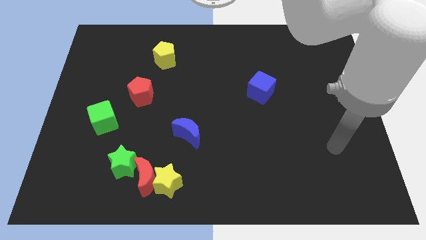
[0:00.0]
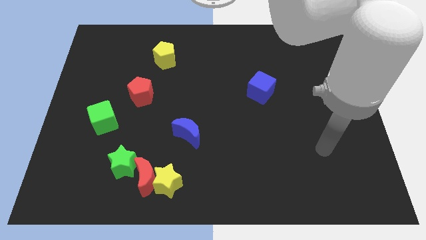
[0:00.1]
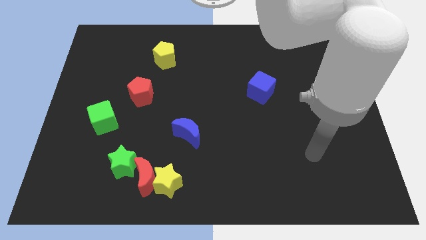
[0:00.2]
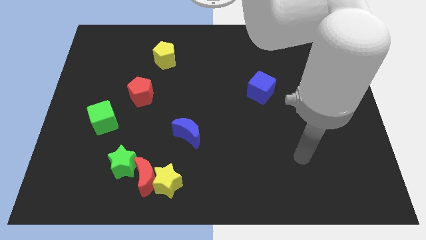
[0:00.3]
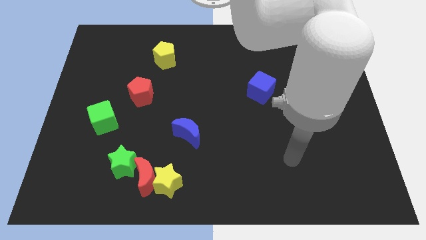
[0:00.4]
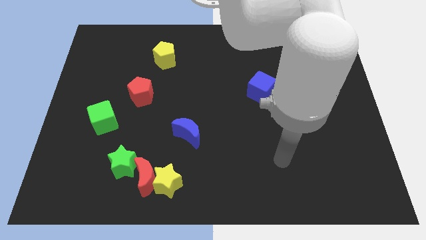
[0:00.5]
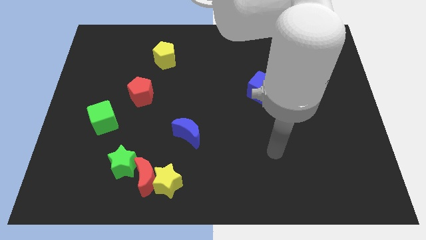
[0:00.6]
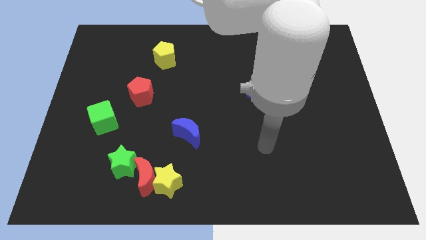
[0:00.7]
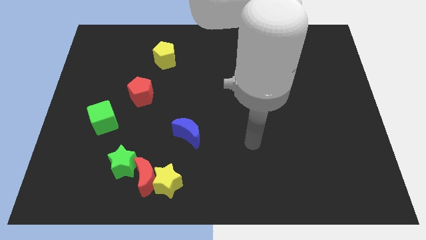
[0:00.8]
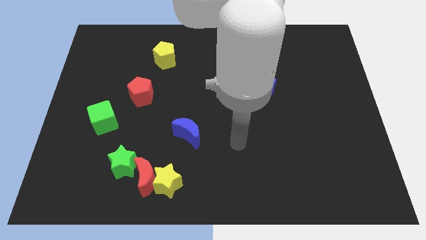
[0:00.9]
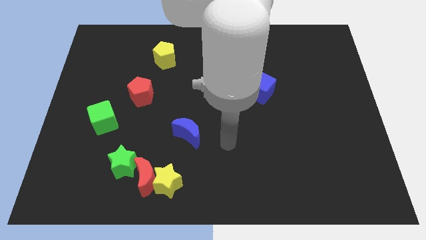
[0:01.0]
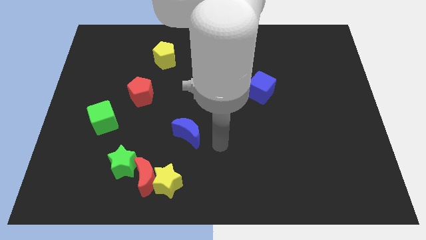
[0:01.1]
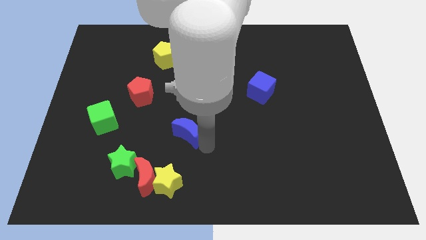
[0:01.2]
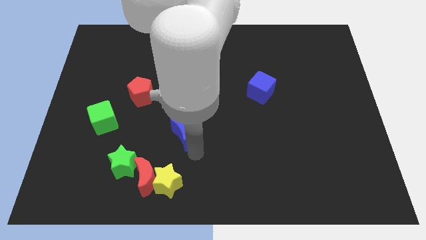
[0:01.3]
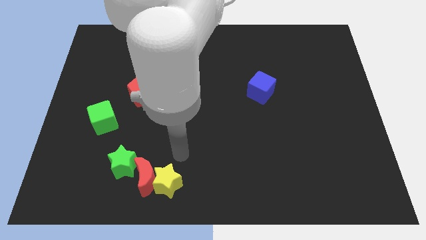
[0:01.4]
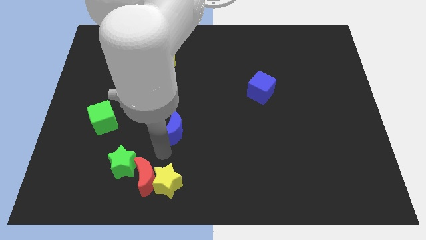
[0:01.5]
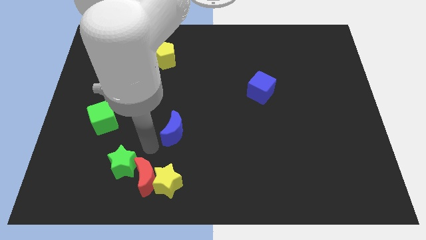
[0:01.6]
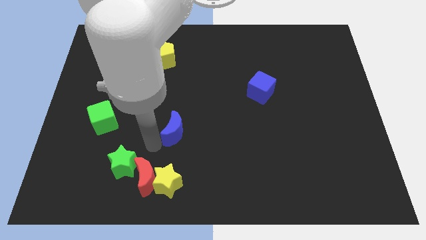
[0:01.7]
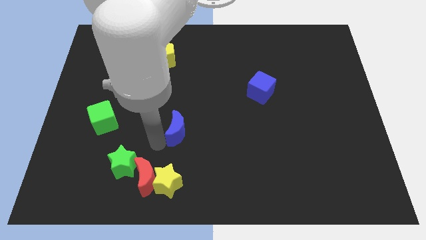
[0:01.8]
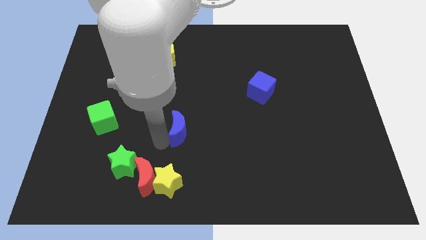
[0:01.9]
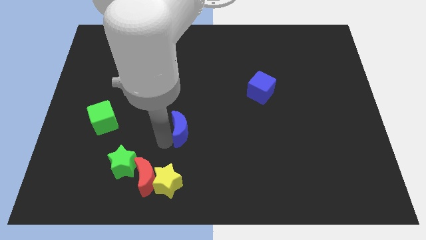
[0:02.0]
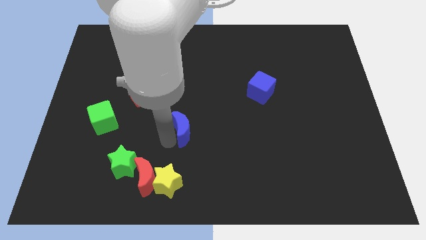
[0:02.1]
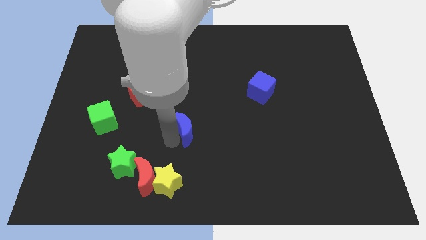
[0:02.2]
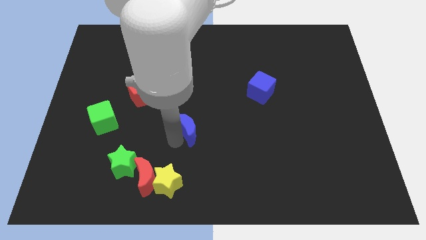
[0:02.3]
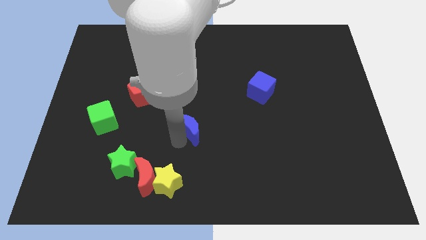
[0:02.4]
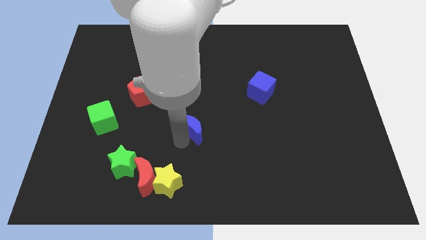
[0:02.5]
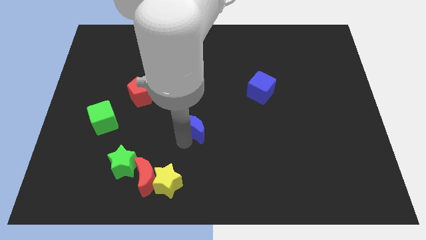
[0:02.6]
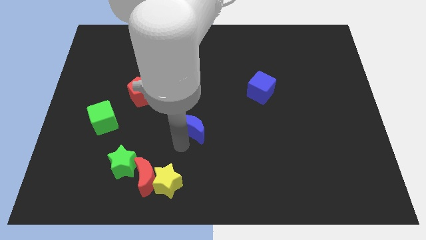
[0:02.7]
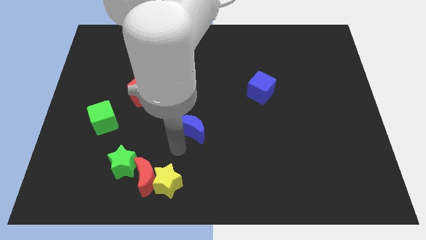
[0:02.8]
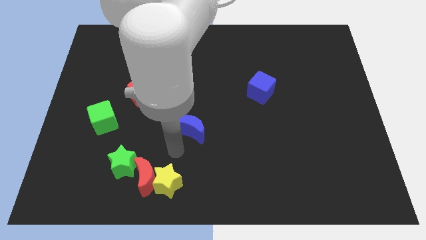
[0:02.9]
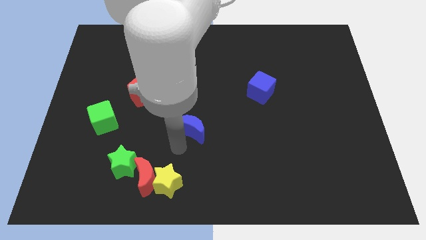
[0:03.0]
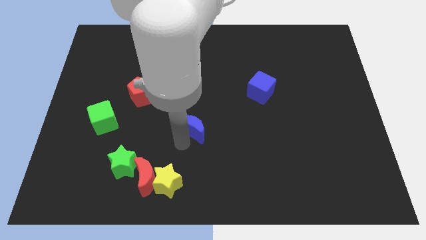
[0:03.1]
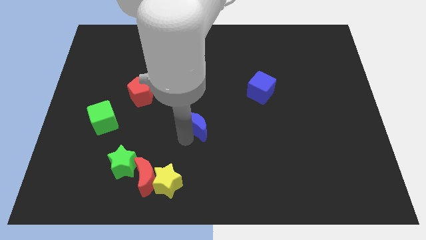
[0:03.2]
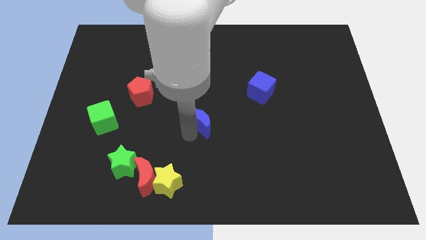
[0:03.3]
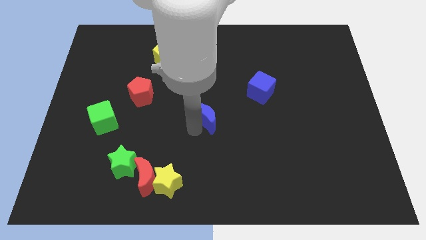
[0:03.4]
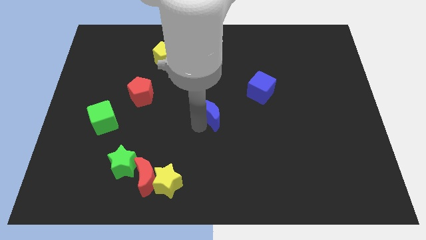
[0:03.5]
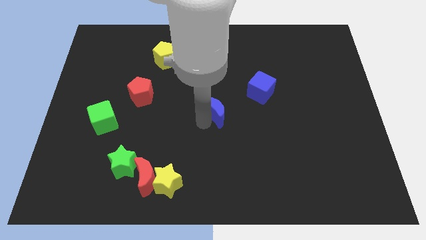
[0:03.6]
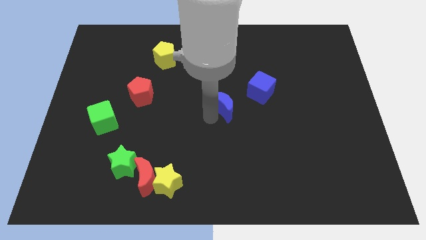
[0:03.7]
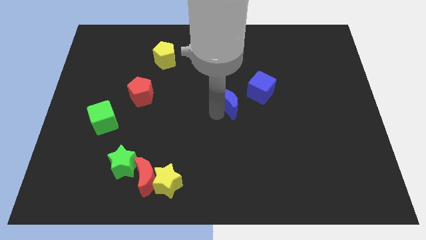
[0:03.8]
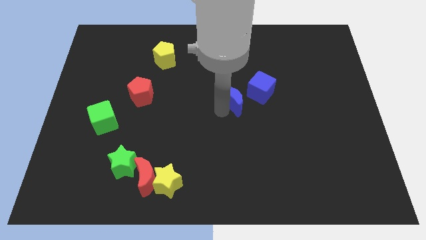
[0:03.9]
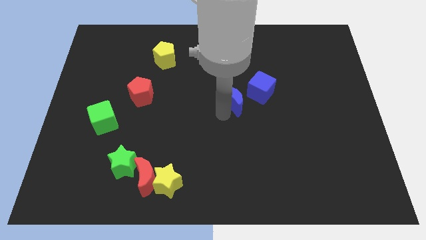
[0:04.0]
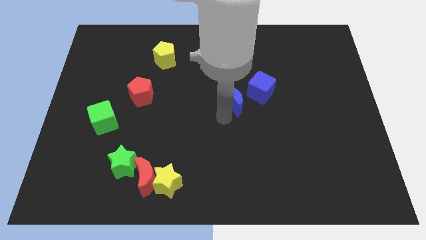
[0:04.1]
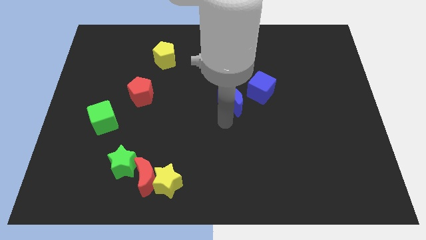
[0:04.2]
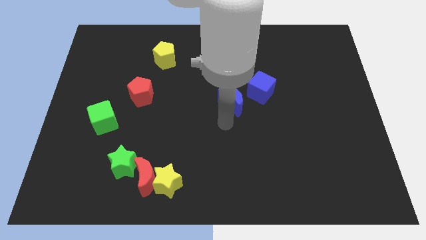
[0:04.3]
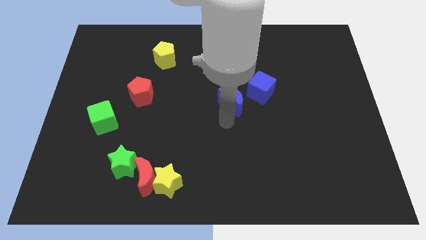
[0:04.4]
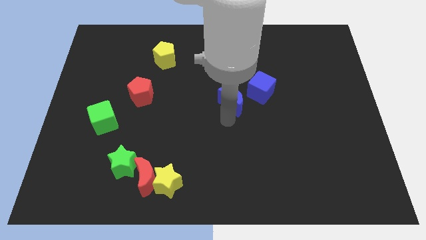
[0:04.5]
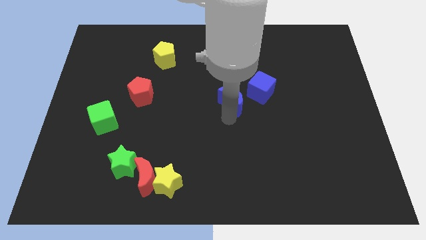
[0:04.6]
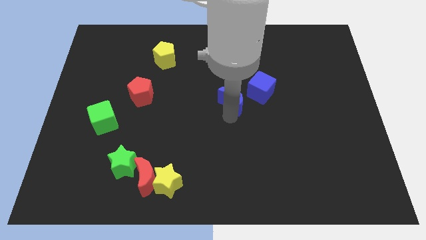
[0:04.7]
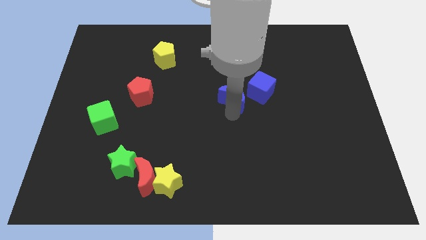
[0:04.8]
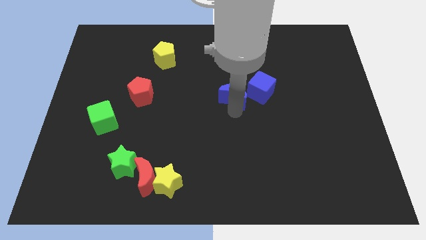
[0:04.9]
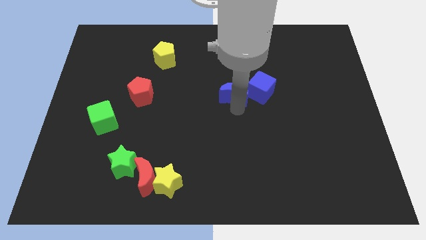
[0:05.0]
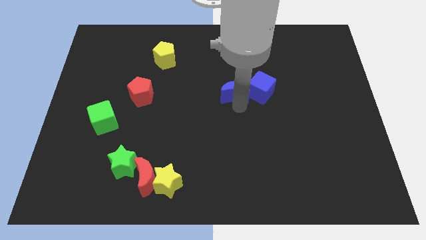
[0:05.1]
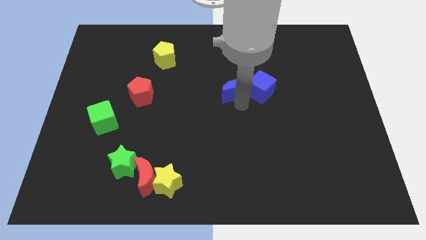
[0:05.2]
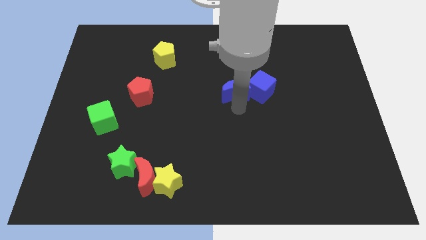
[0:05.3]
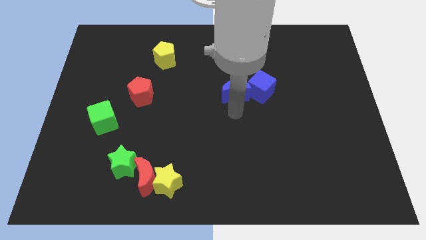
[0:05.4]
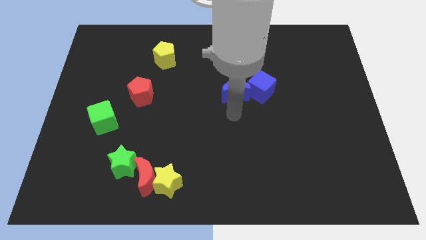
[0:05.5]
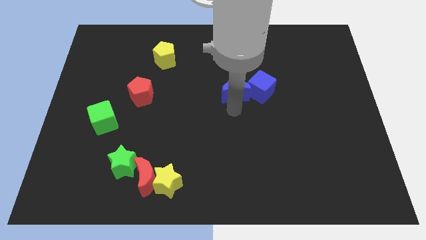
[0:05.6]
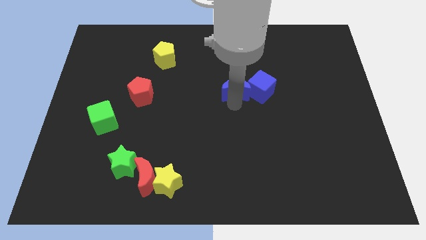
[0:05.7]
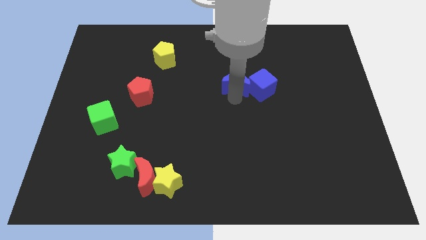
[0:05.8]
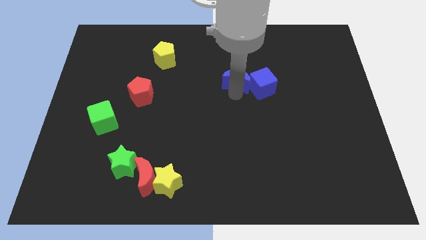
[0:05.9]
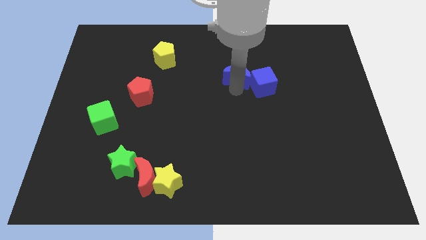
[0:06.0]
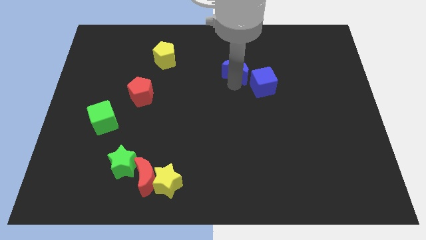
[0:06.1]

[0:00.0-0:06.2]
slide the blue moon upwards and to the right

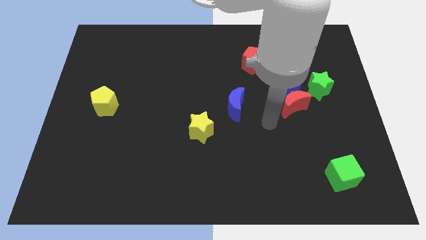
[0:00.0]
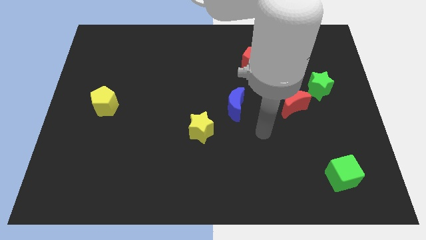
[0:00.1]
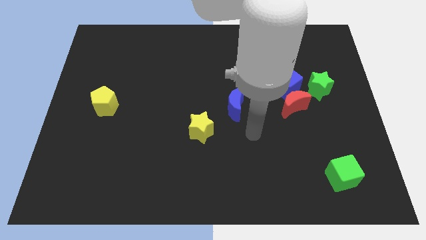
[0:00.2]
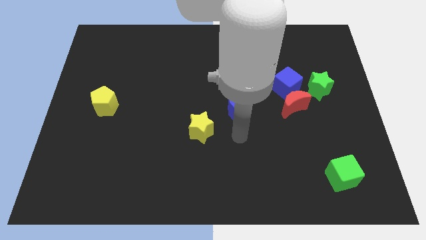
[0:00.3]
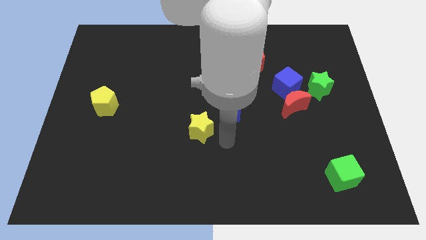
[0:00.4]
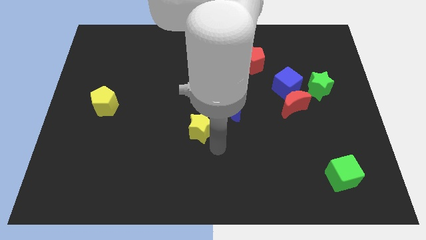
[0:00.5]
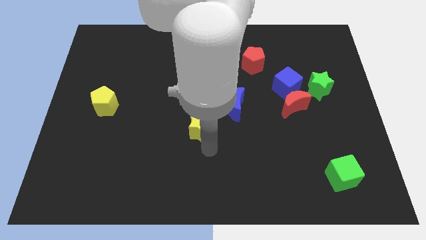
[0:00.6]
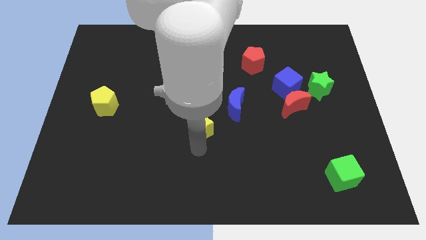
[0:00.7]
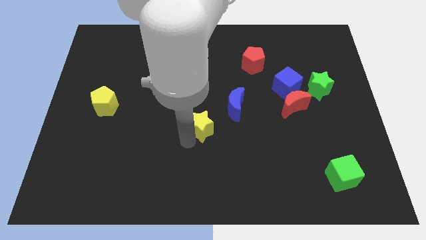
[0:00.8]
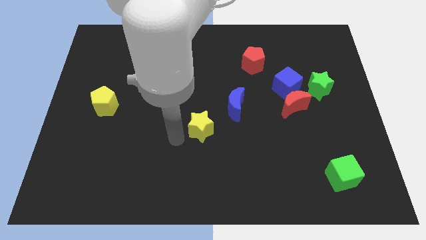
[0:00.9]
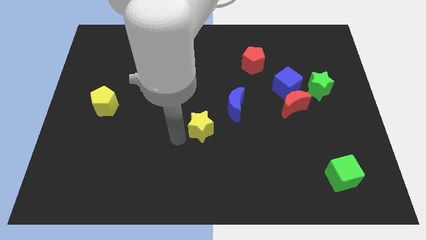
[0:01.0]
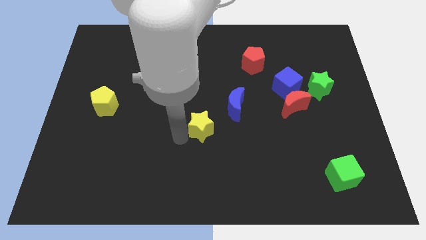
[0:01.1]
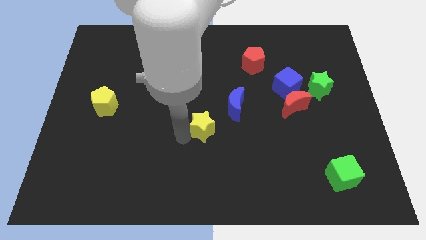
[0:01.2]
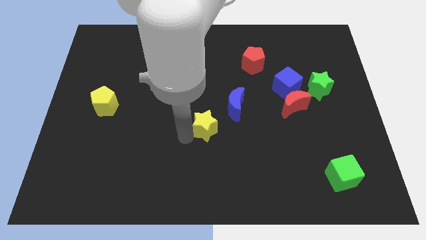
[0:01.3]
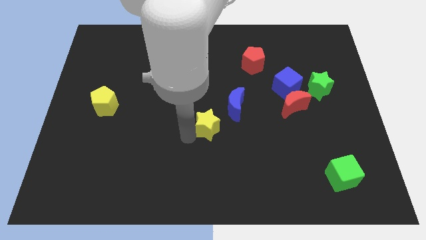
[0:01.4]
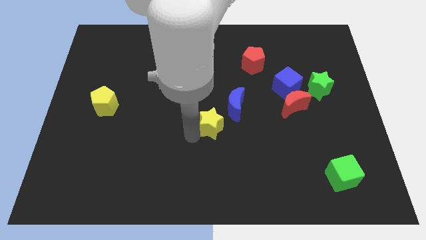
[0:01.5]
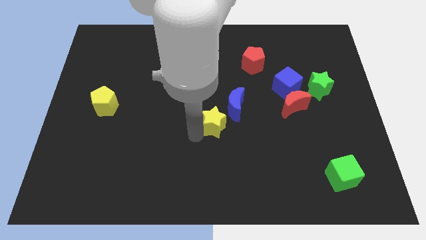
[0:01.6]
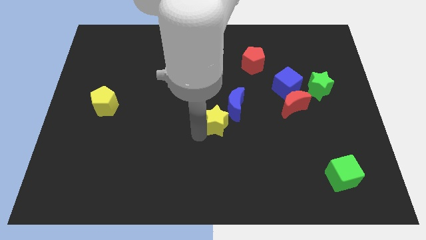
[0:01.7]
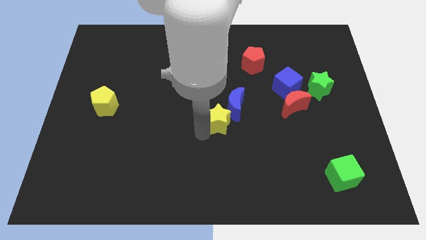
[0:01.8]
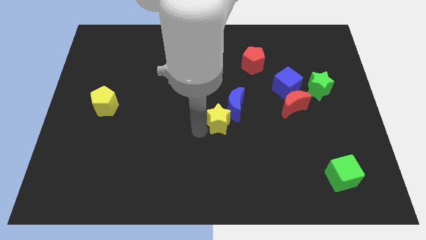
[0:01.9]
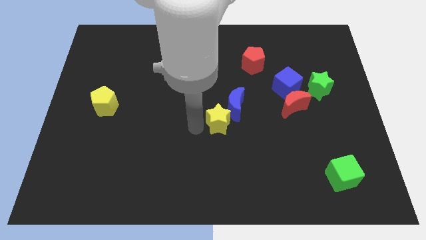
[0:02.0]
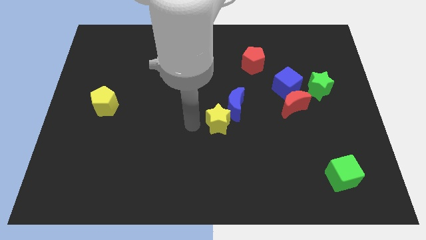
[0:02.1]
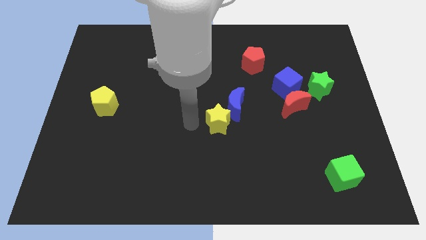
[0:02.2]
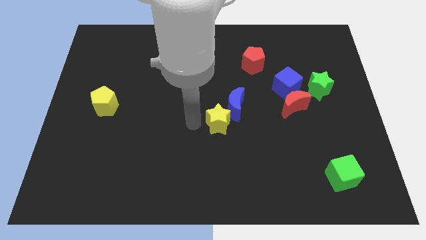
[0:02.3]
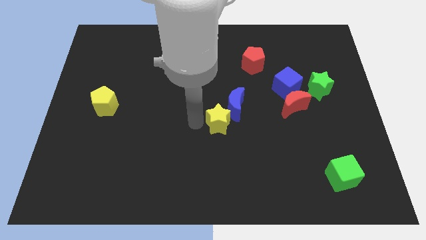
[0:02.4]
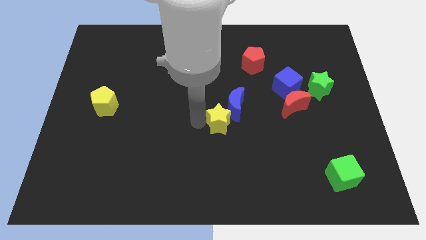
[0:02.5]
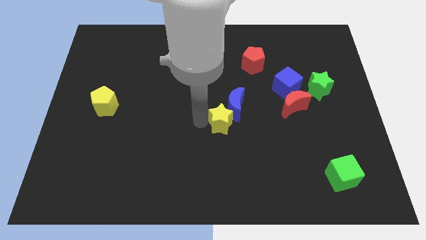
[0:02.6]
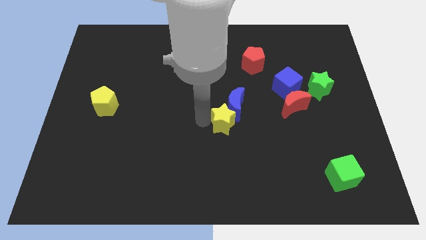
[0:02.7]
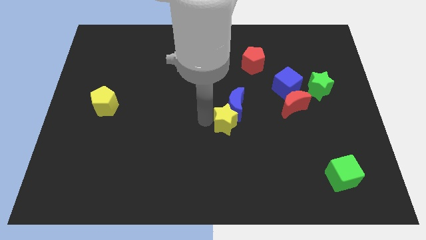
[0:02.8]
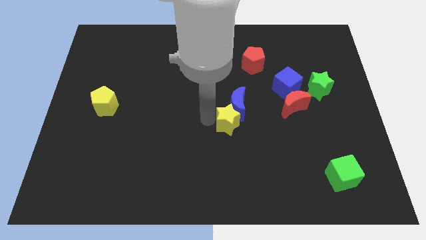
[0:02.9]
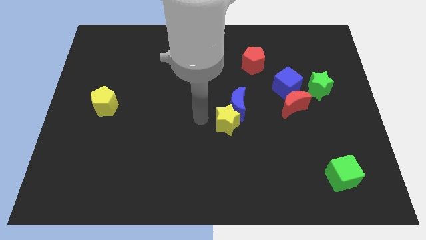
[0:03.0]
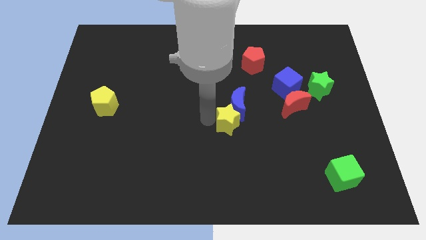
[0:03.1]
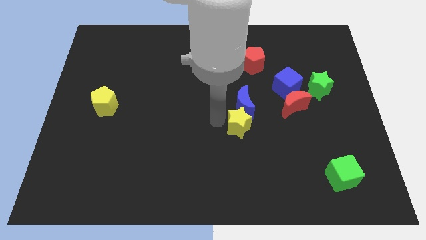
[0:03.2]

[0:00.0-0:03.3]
push the yellow star somewhat right
